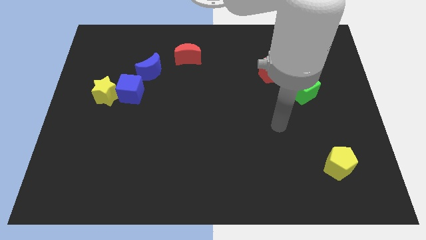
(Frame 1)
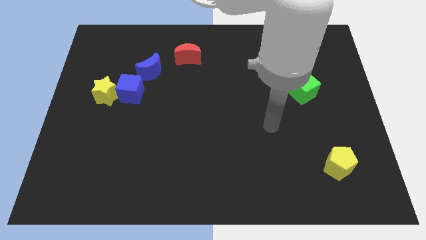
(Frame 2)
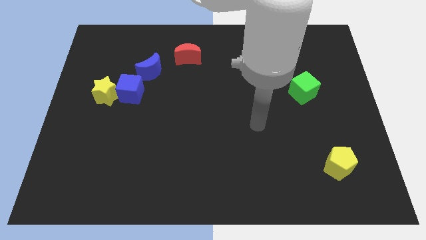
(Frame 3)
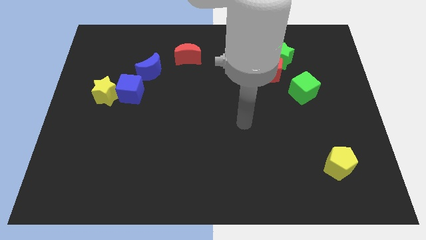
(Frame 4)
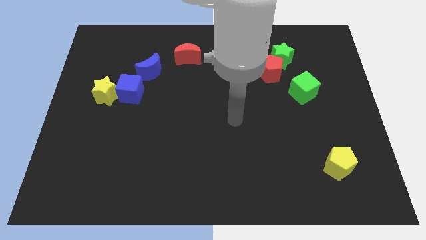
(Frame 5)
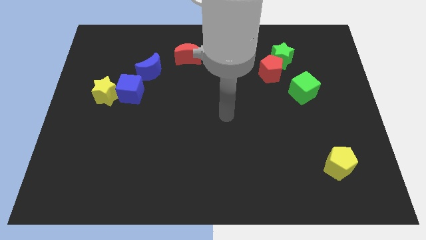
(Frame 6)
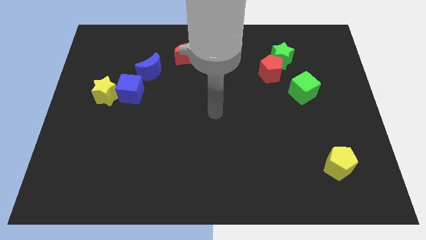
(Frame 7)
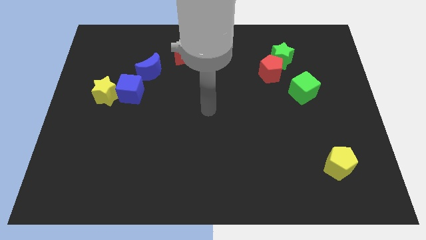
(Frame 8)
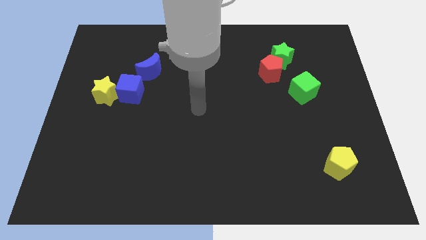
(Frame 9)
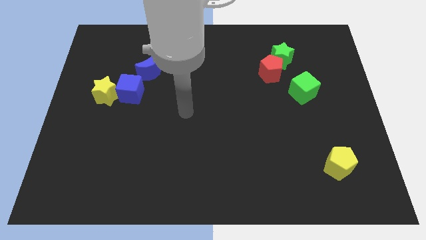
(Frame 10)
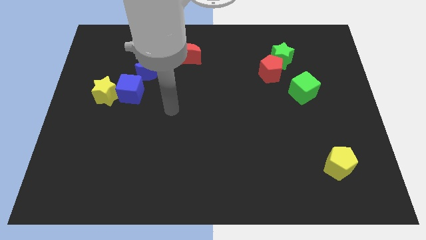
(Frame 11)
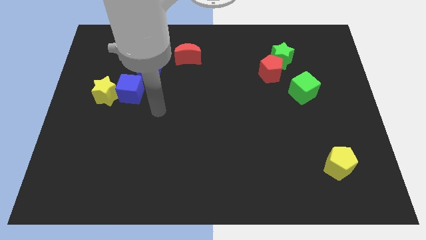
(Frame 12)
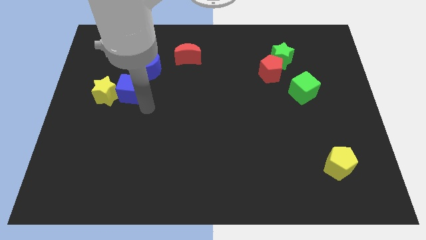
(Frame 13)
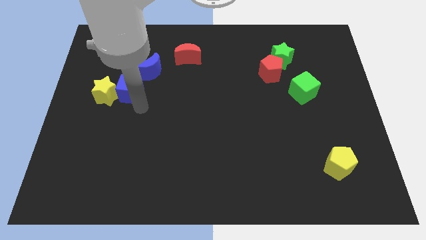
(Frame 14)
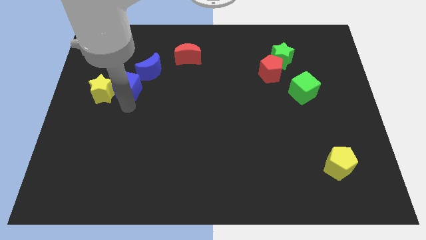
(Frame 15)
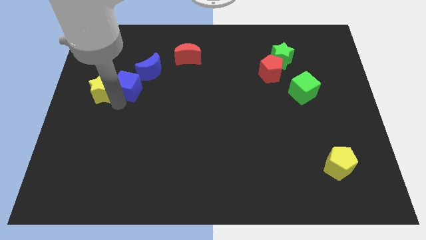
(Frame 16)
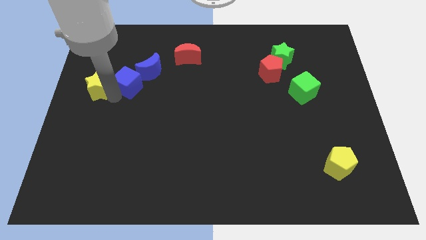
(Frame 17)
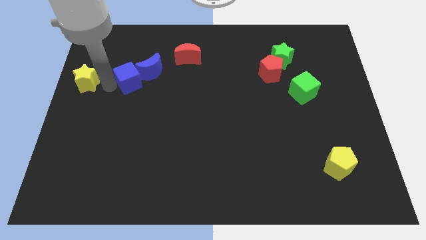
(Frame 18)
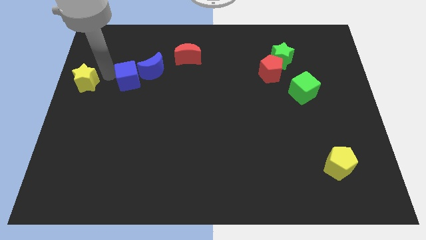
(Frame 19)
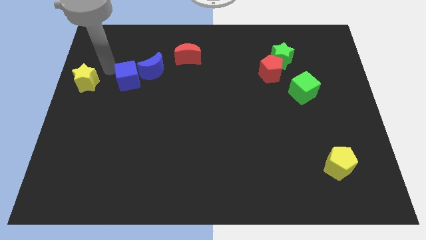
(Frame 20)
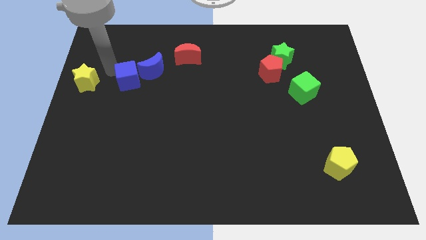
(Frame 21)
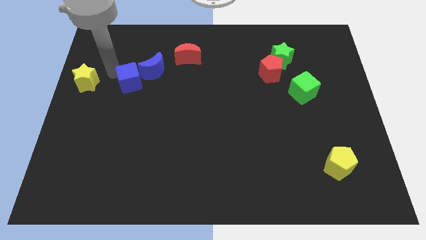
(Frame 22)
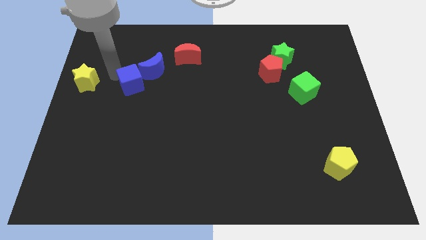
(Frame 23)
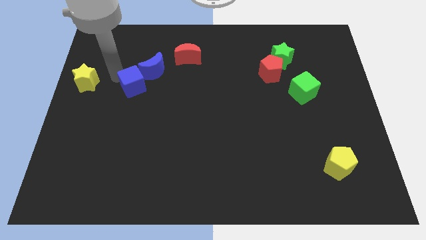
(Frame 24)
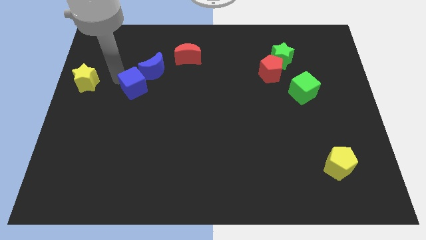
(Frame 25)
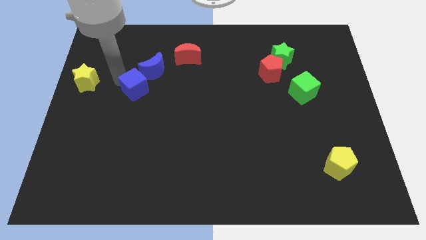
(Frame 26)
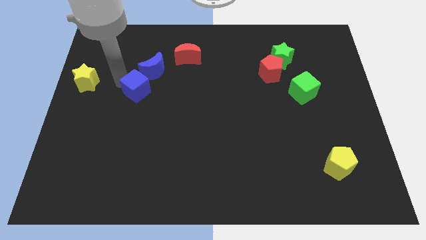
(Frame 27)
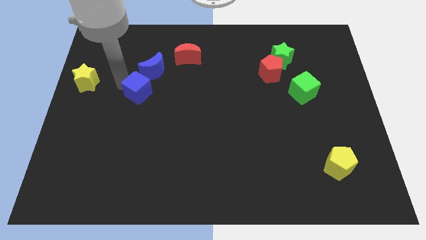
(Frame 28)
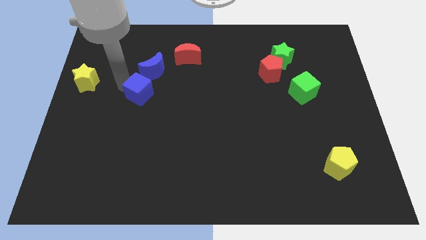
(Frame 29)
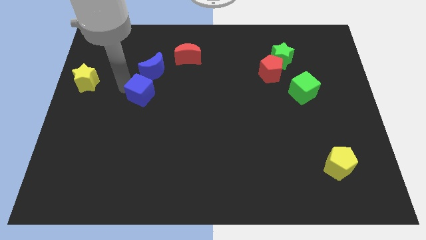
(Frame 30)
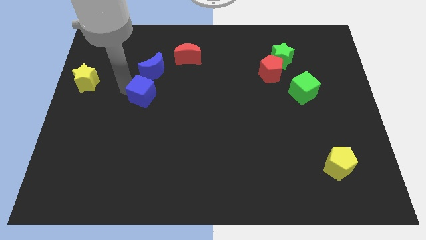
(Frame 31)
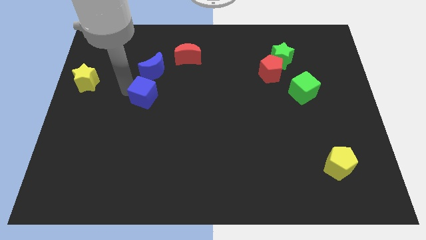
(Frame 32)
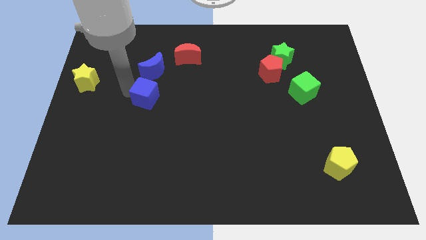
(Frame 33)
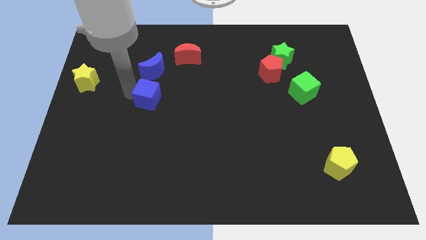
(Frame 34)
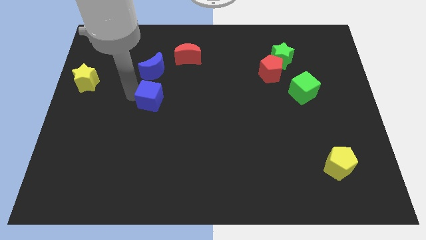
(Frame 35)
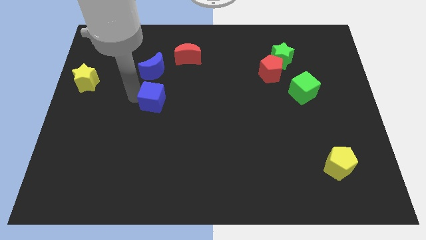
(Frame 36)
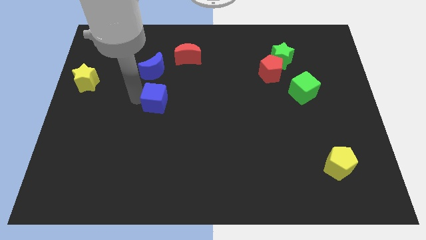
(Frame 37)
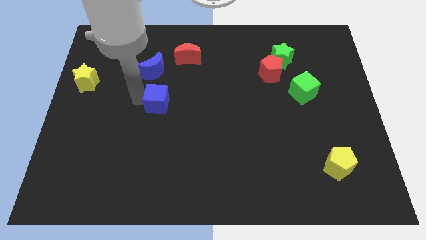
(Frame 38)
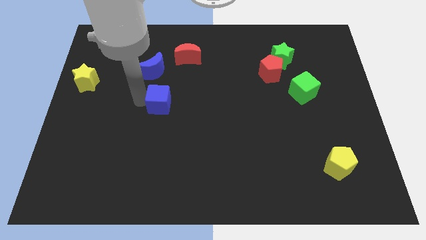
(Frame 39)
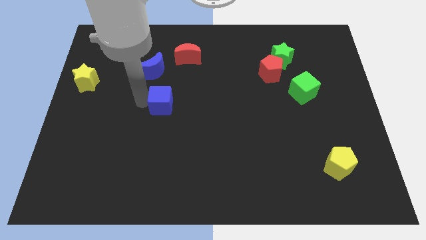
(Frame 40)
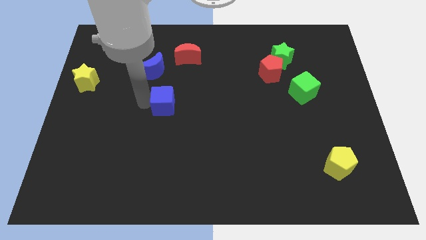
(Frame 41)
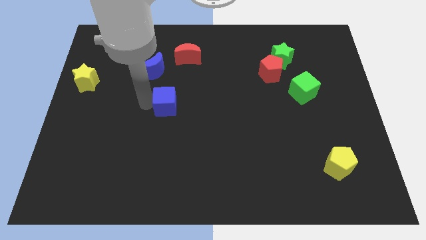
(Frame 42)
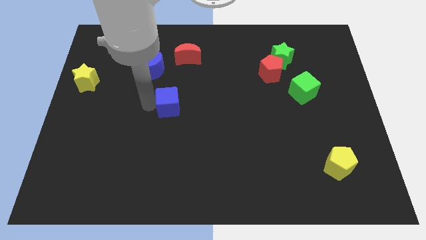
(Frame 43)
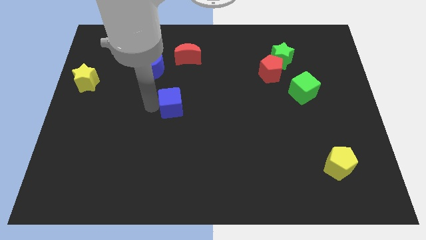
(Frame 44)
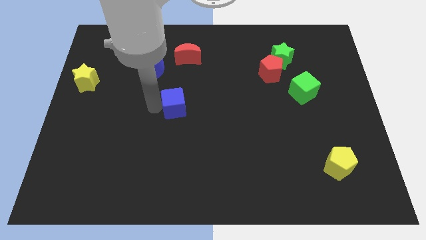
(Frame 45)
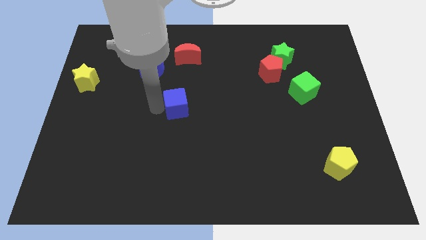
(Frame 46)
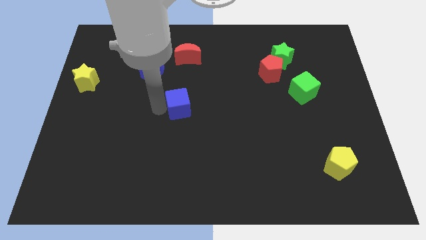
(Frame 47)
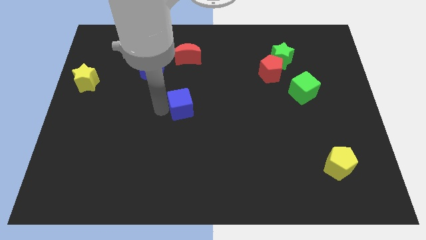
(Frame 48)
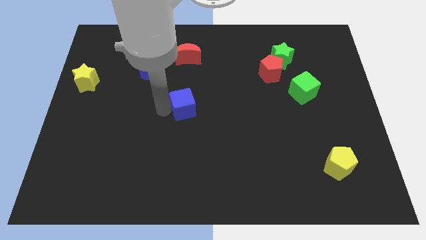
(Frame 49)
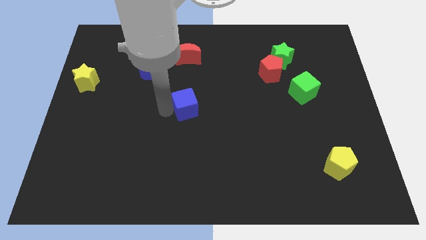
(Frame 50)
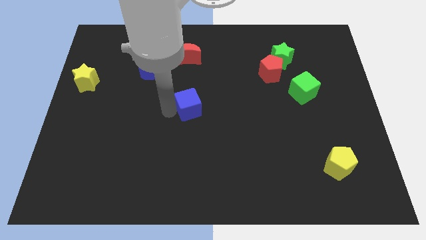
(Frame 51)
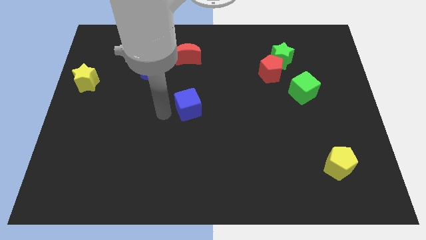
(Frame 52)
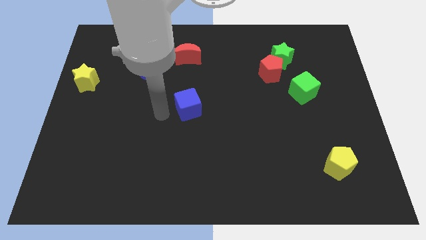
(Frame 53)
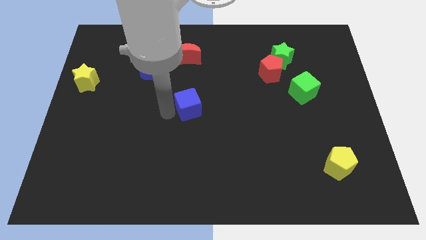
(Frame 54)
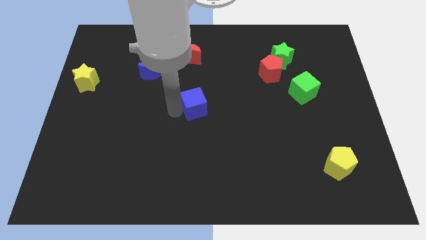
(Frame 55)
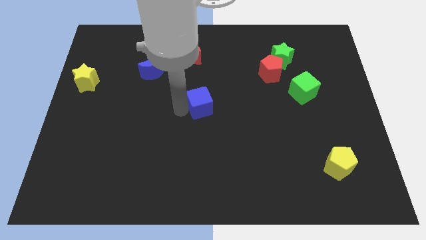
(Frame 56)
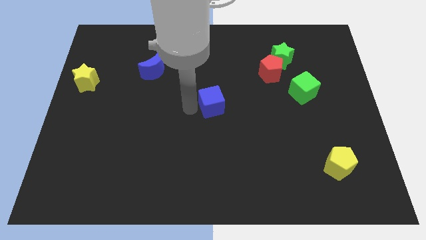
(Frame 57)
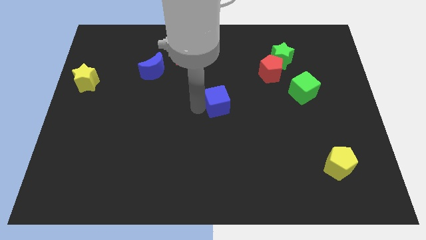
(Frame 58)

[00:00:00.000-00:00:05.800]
slide the blue cube right

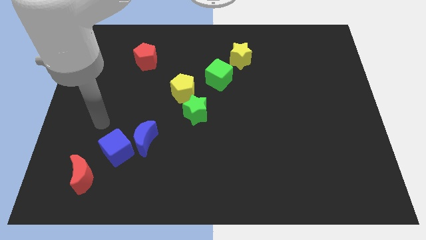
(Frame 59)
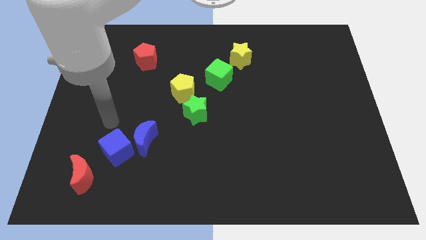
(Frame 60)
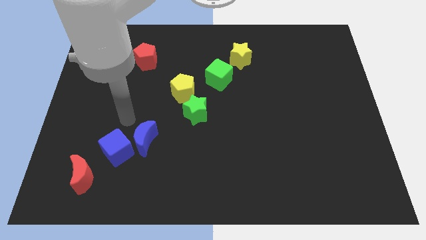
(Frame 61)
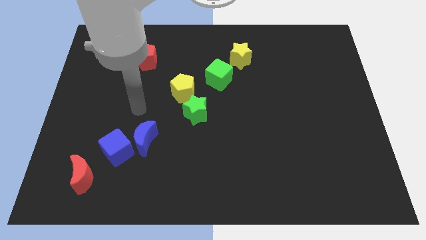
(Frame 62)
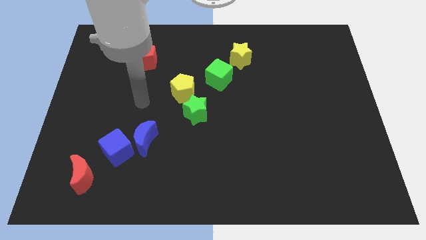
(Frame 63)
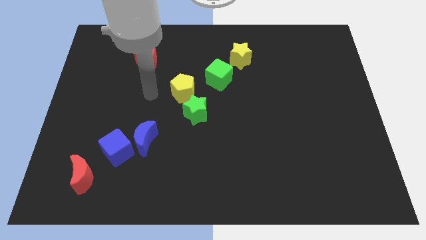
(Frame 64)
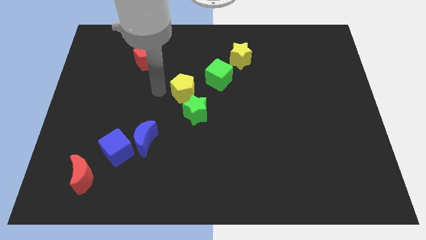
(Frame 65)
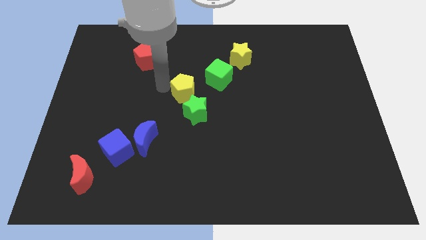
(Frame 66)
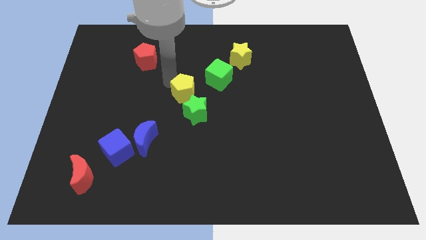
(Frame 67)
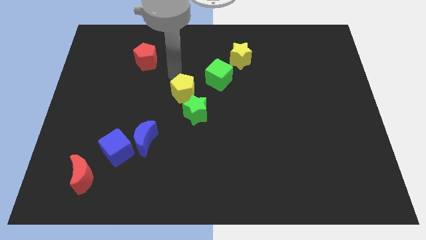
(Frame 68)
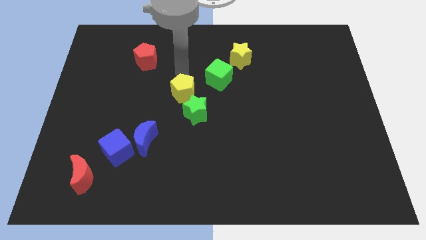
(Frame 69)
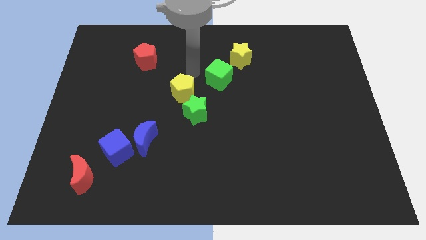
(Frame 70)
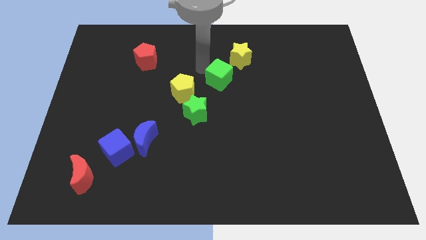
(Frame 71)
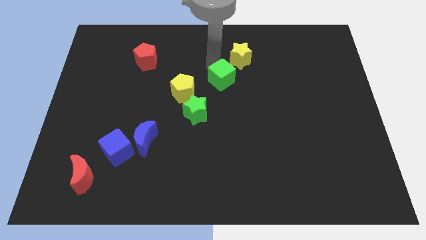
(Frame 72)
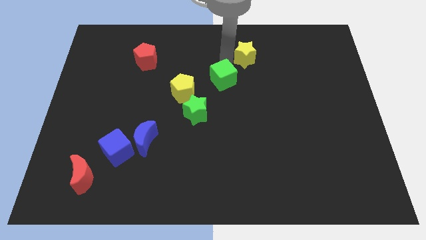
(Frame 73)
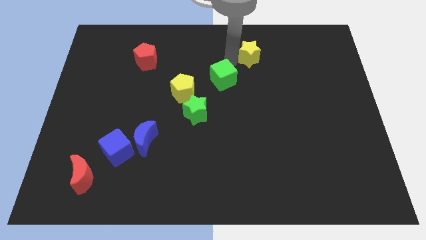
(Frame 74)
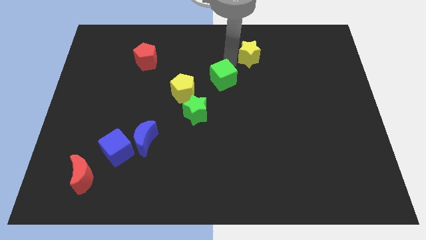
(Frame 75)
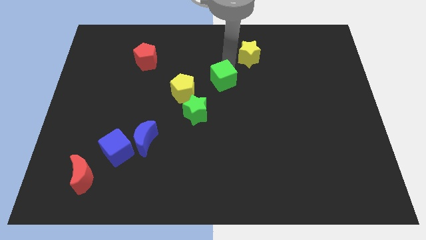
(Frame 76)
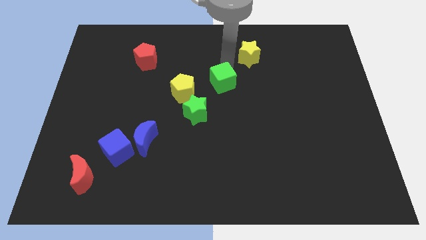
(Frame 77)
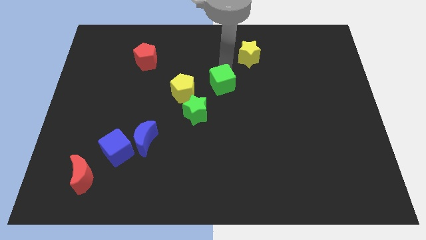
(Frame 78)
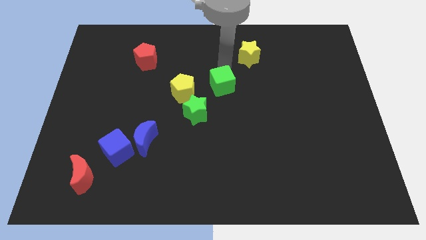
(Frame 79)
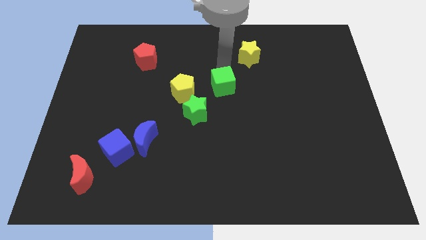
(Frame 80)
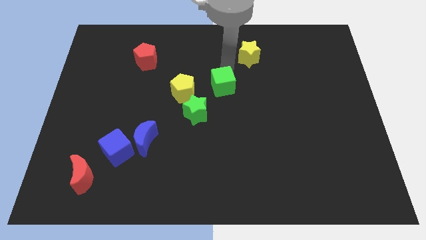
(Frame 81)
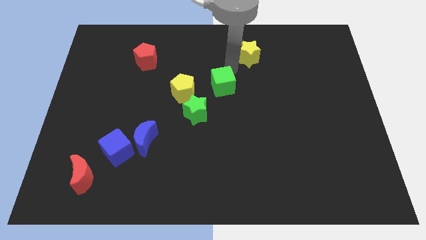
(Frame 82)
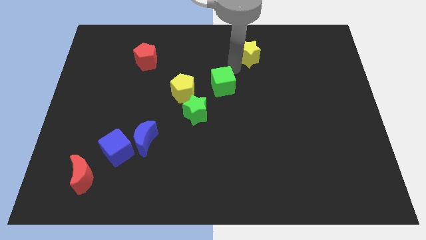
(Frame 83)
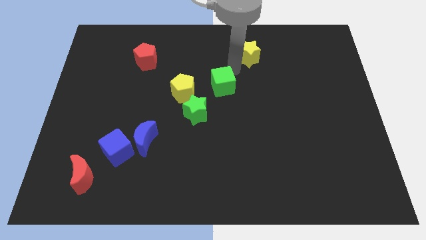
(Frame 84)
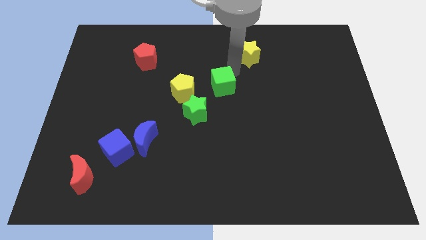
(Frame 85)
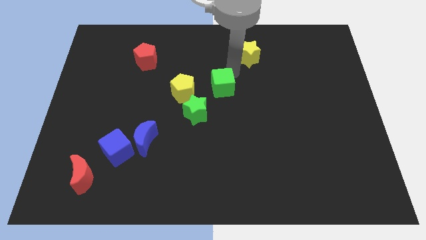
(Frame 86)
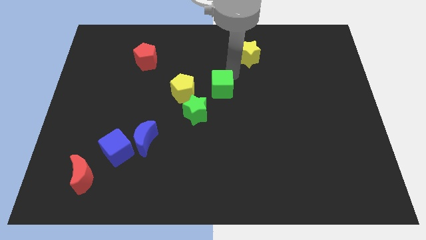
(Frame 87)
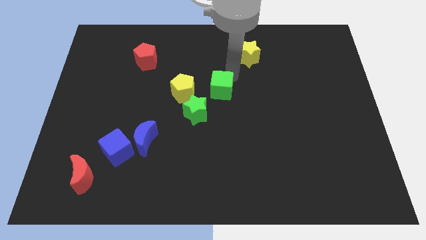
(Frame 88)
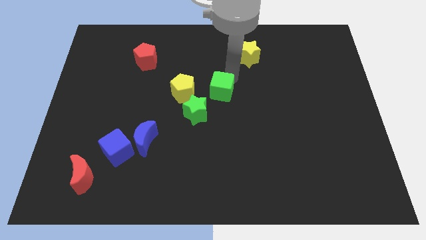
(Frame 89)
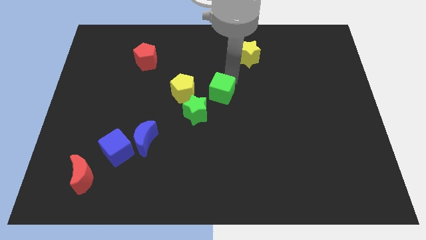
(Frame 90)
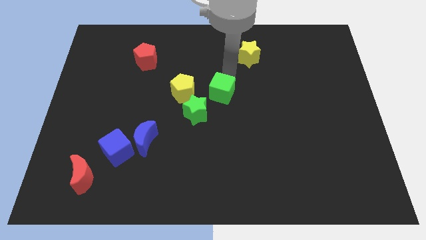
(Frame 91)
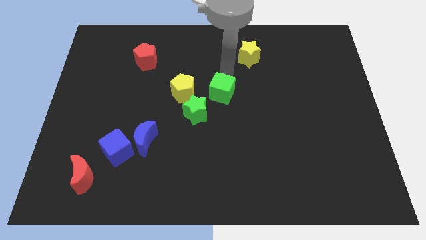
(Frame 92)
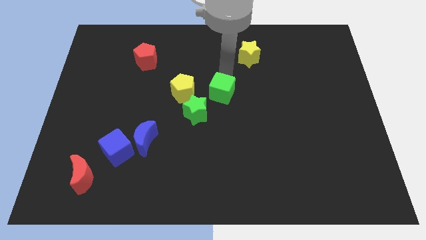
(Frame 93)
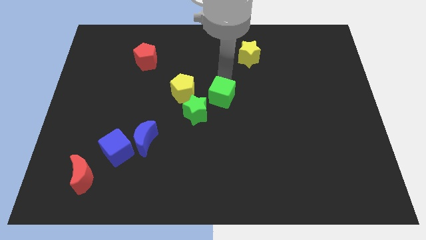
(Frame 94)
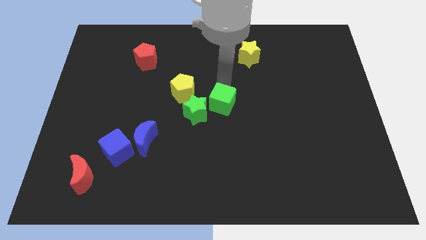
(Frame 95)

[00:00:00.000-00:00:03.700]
move the green cube downwards a little
